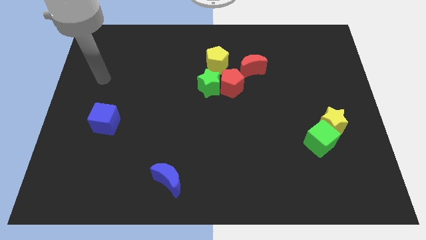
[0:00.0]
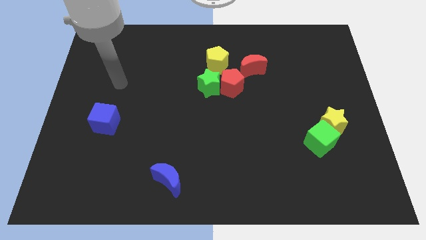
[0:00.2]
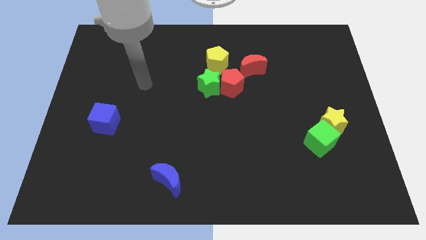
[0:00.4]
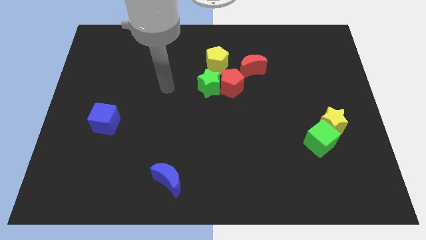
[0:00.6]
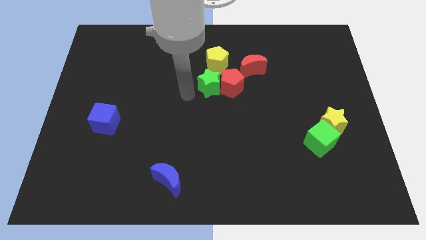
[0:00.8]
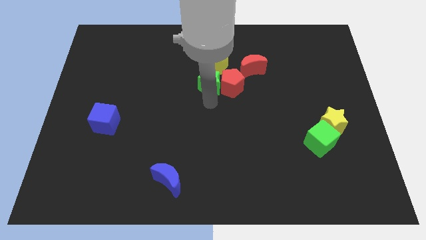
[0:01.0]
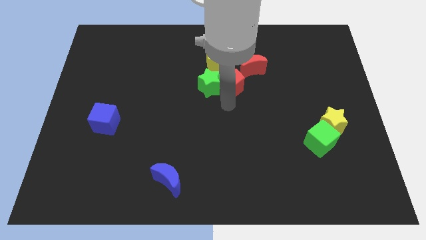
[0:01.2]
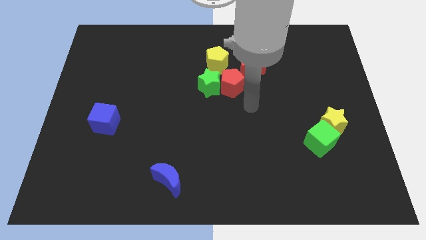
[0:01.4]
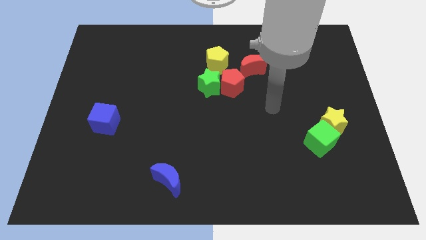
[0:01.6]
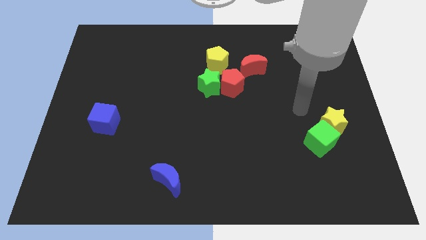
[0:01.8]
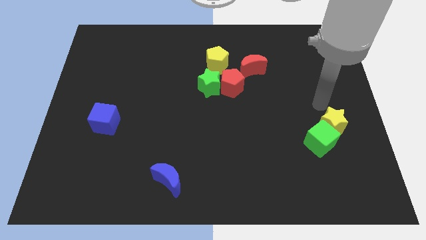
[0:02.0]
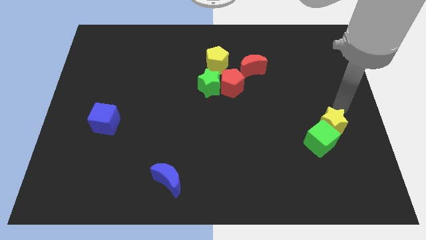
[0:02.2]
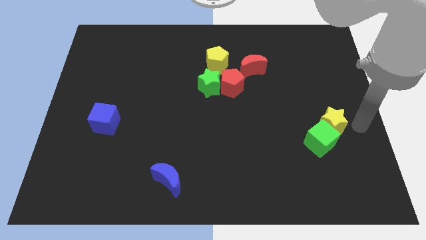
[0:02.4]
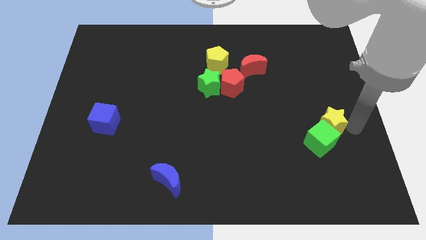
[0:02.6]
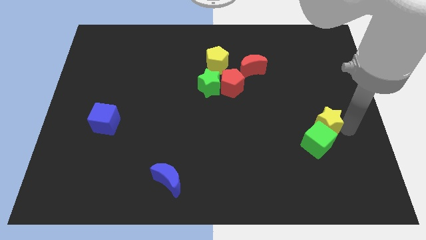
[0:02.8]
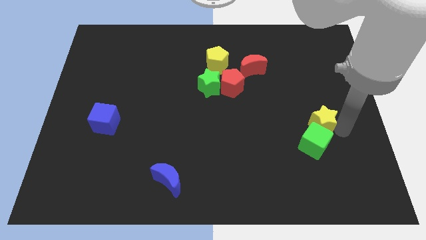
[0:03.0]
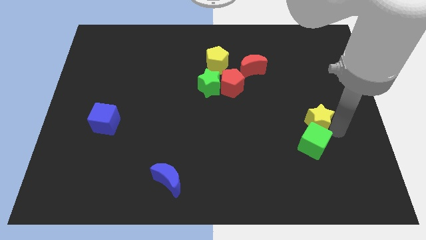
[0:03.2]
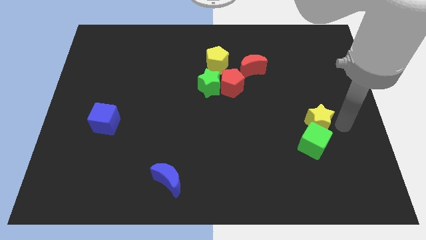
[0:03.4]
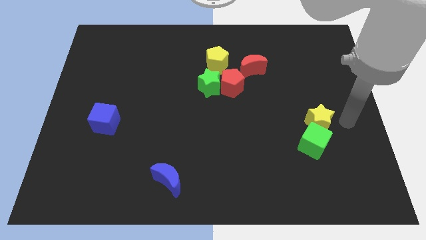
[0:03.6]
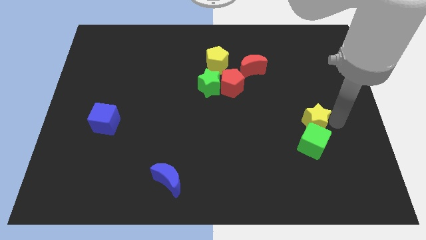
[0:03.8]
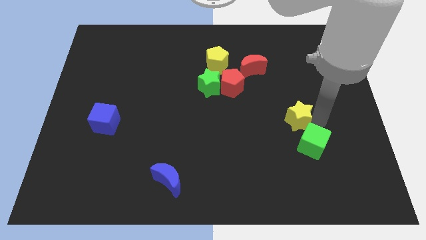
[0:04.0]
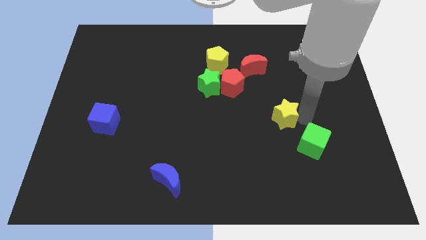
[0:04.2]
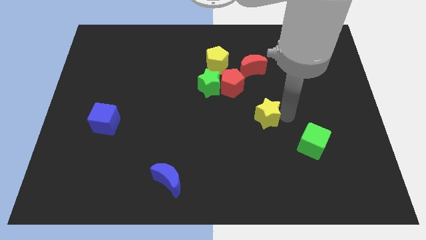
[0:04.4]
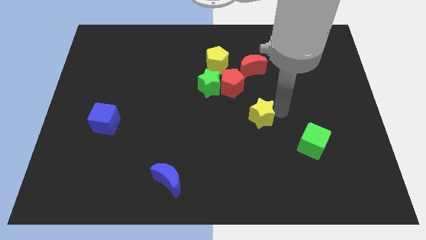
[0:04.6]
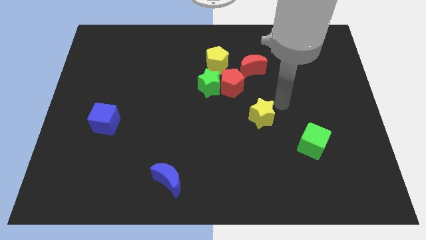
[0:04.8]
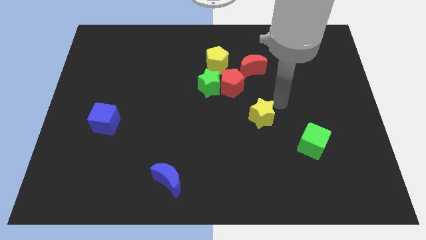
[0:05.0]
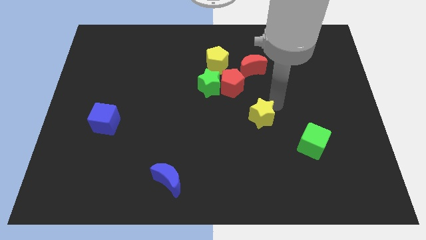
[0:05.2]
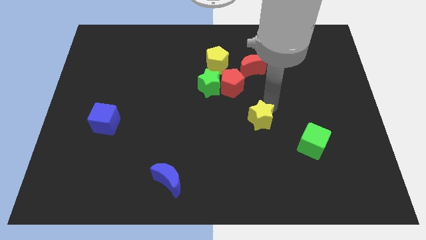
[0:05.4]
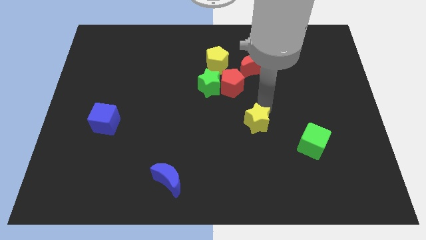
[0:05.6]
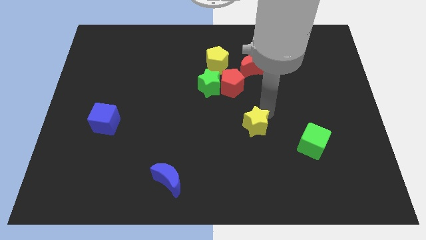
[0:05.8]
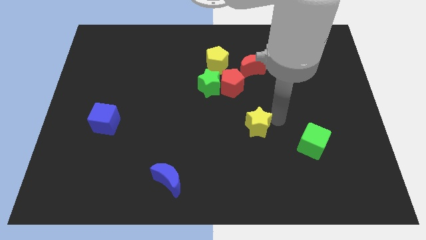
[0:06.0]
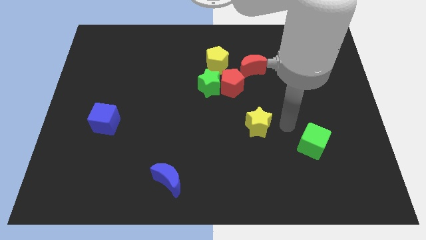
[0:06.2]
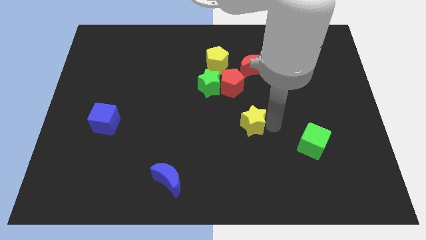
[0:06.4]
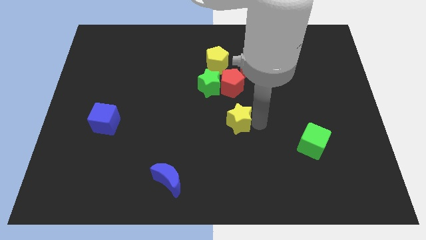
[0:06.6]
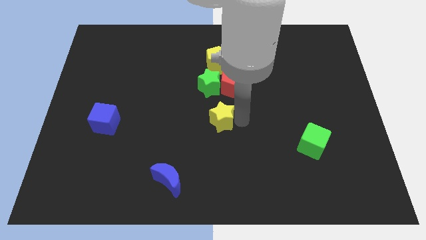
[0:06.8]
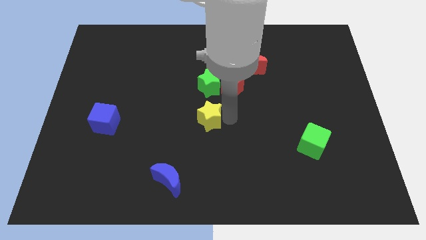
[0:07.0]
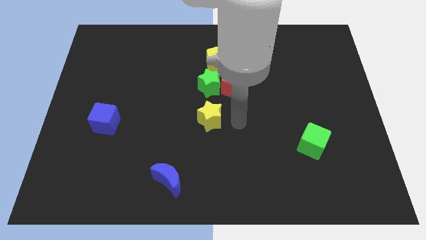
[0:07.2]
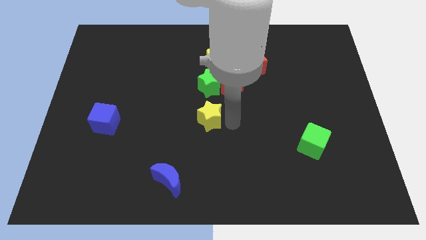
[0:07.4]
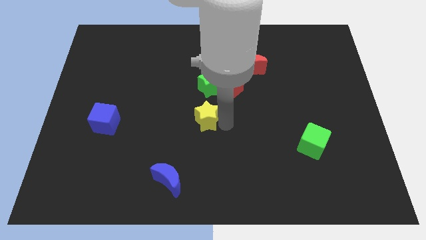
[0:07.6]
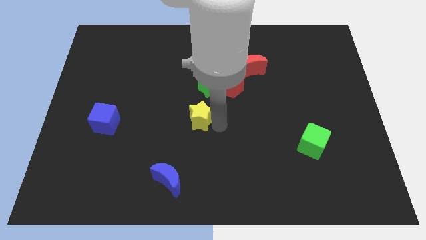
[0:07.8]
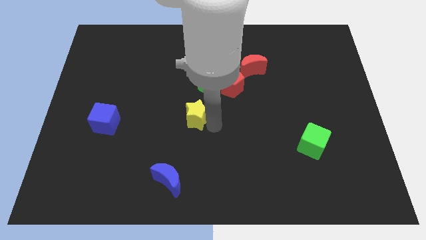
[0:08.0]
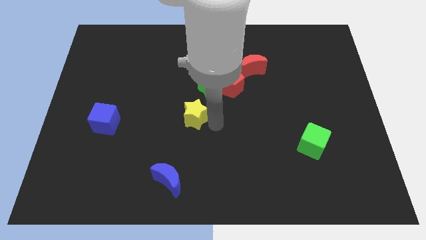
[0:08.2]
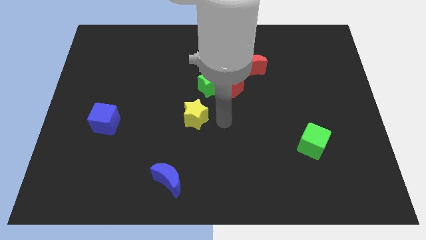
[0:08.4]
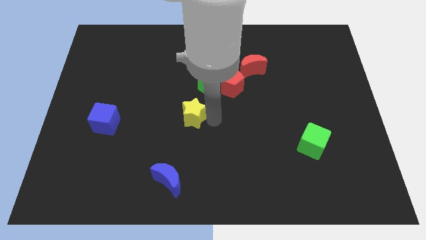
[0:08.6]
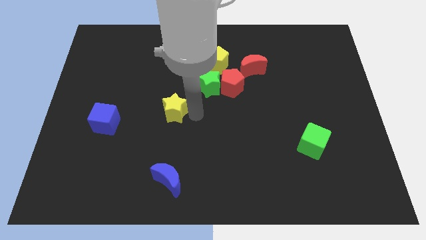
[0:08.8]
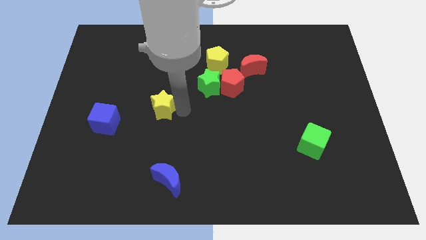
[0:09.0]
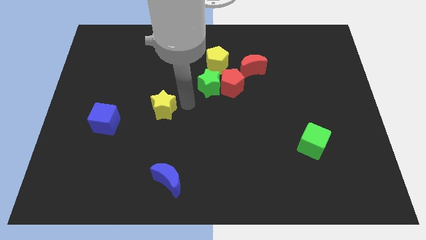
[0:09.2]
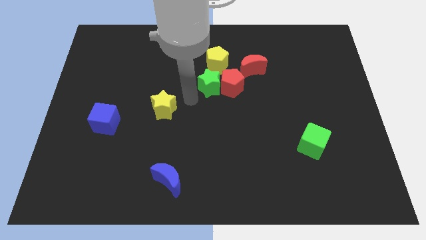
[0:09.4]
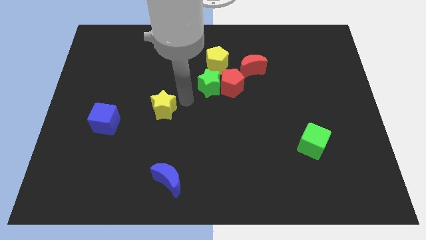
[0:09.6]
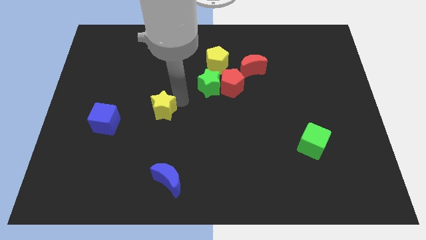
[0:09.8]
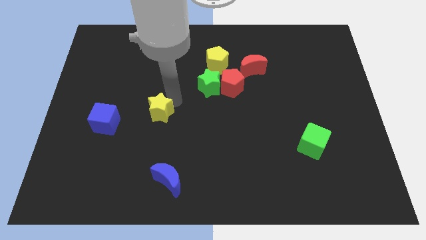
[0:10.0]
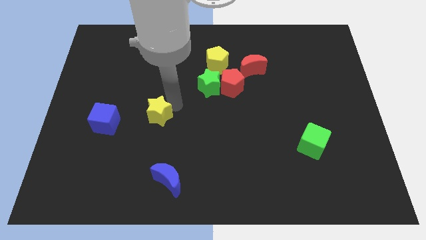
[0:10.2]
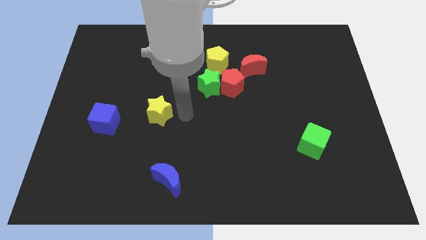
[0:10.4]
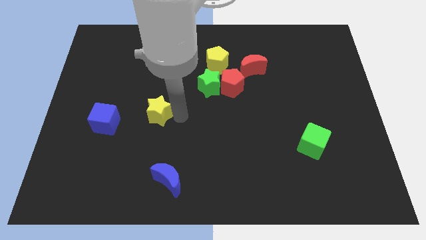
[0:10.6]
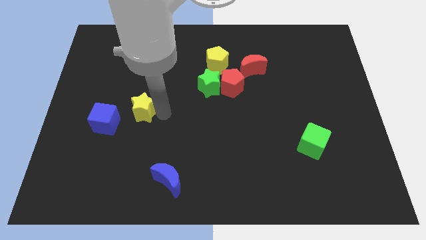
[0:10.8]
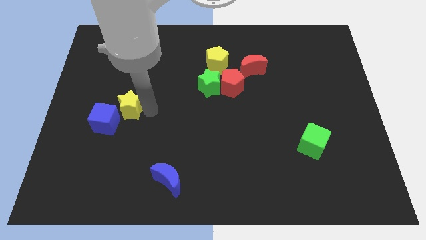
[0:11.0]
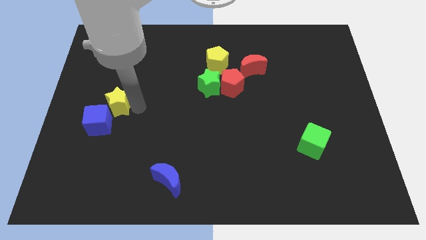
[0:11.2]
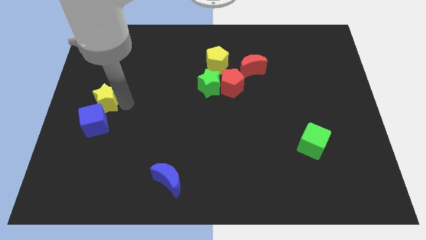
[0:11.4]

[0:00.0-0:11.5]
slide the yellow star to the center left

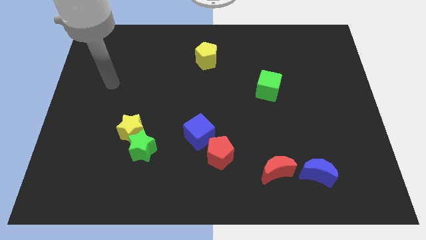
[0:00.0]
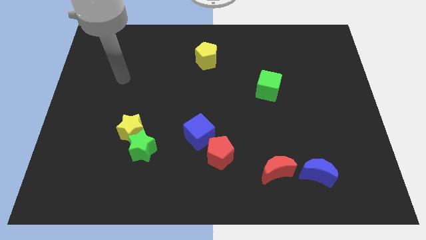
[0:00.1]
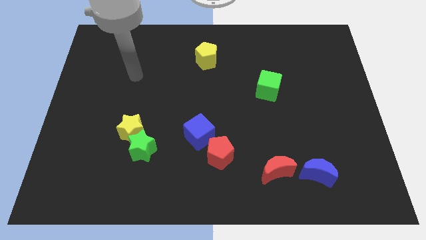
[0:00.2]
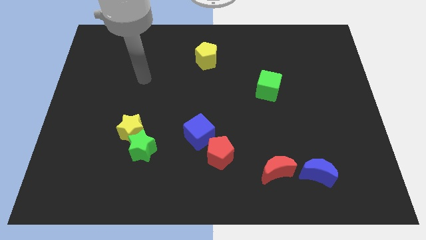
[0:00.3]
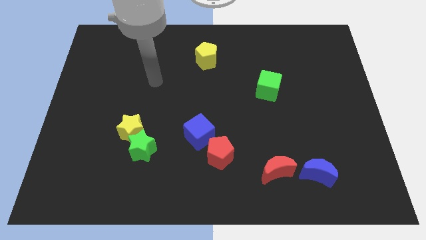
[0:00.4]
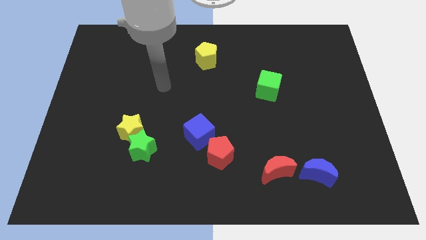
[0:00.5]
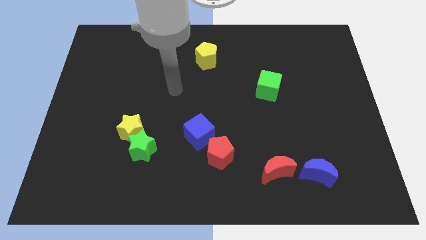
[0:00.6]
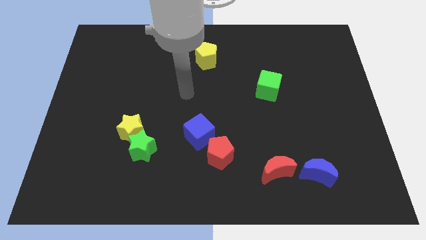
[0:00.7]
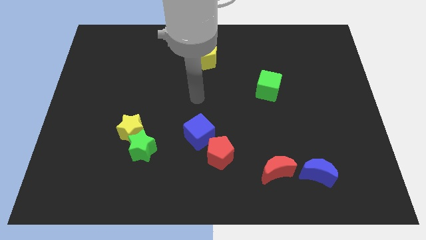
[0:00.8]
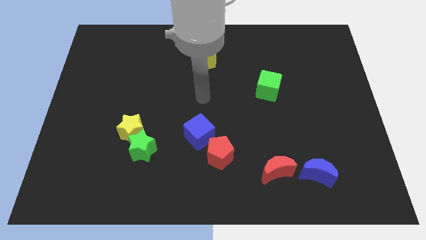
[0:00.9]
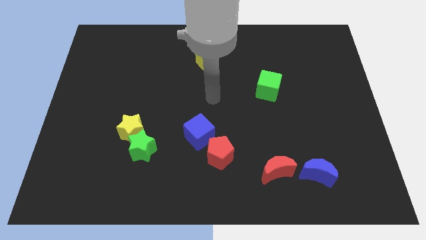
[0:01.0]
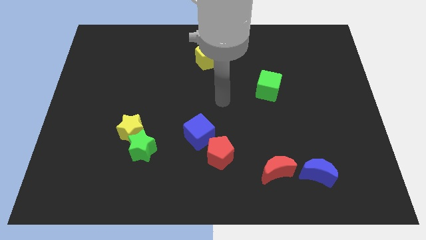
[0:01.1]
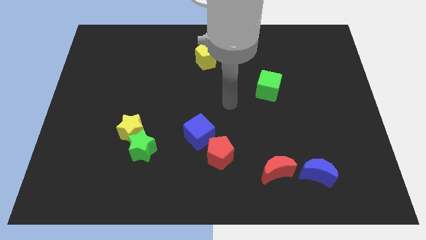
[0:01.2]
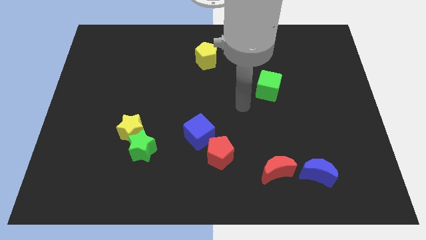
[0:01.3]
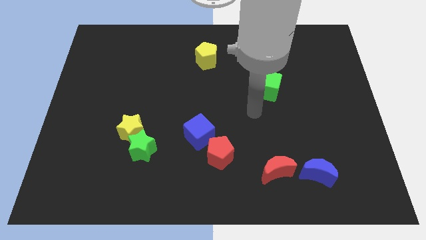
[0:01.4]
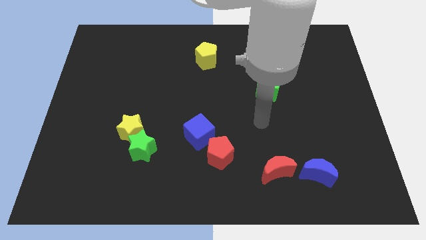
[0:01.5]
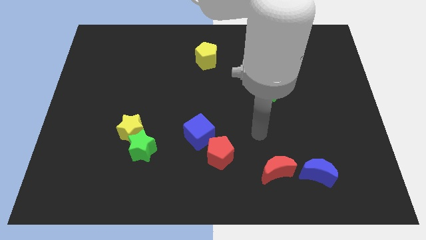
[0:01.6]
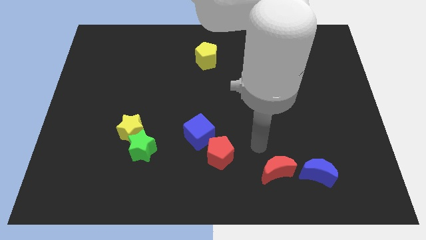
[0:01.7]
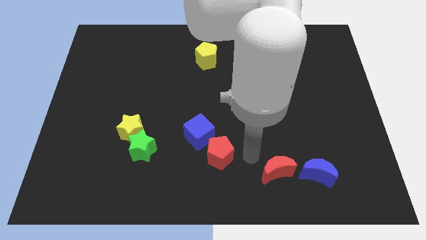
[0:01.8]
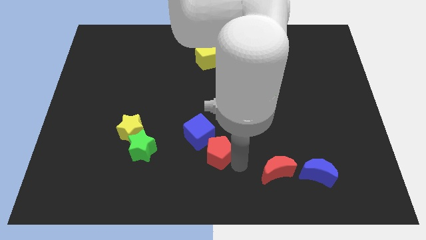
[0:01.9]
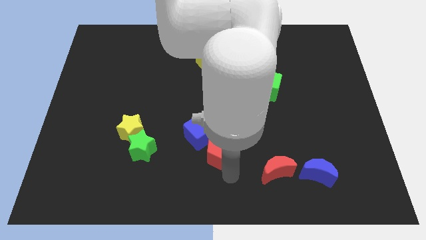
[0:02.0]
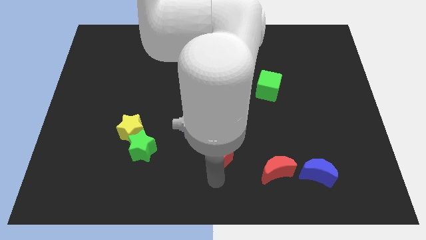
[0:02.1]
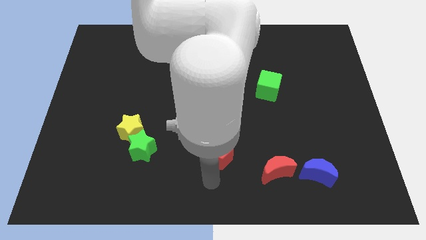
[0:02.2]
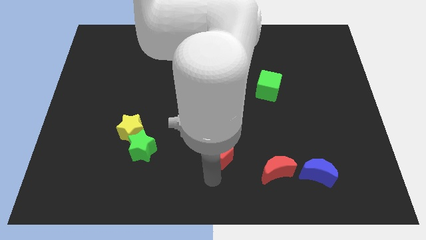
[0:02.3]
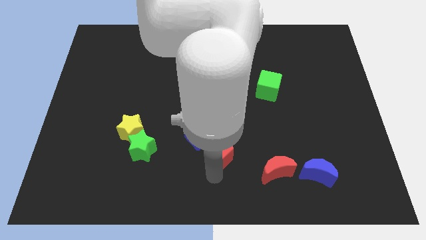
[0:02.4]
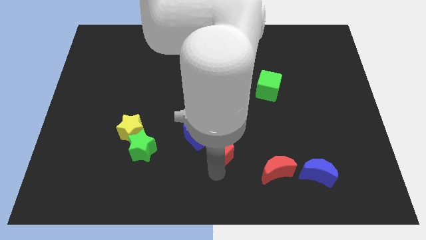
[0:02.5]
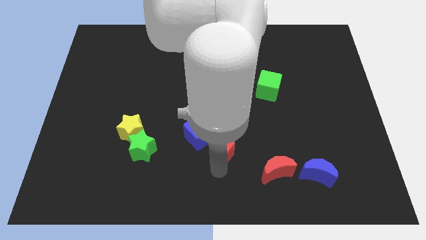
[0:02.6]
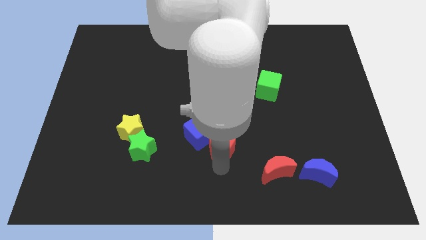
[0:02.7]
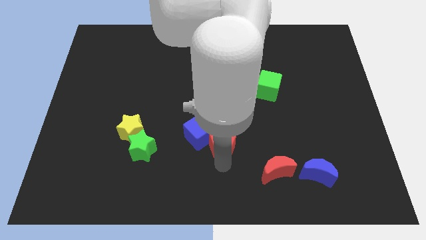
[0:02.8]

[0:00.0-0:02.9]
put the red pentagon to the middle
